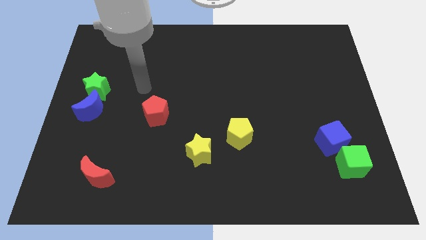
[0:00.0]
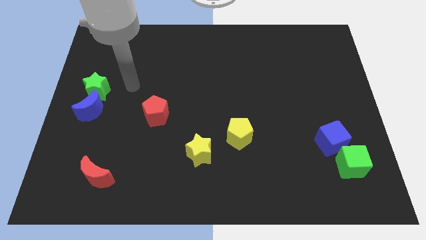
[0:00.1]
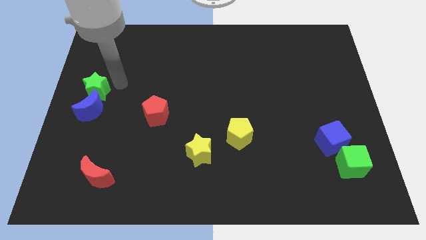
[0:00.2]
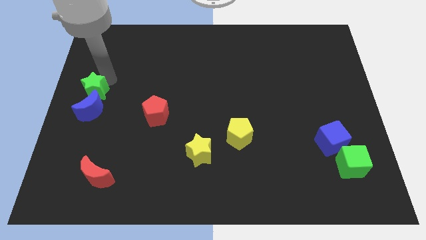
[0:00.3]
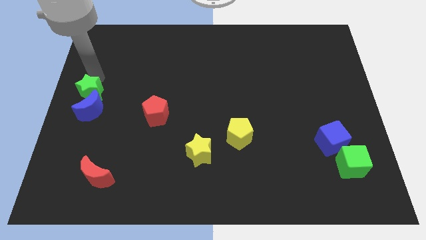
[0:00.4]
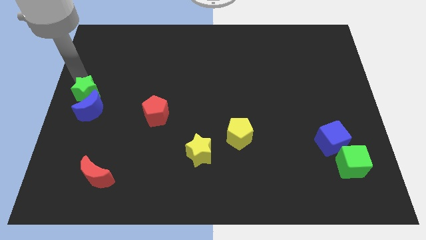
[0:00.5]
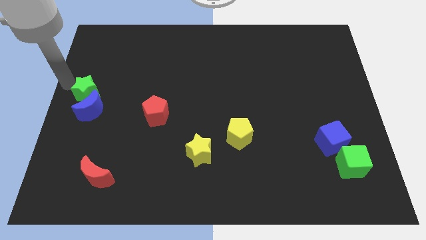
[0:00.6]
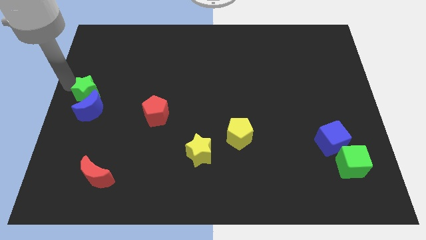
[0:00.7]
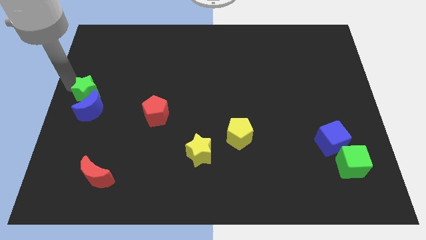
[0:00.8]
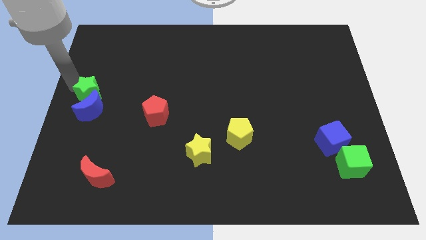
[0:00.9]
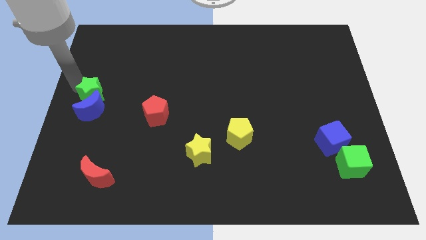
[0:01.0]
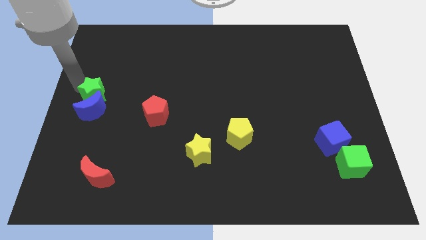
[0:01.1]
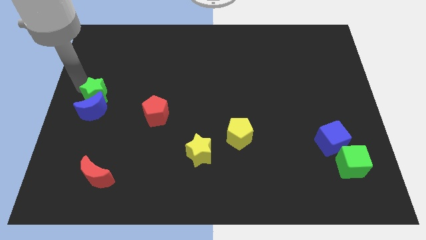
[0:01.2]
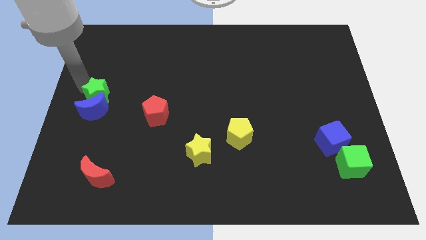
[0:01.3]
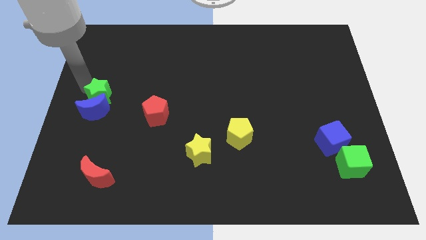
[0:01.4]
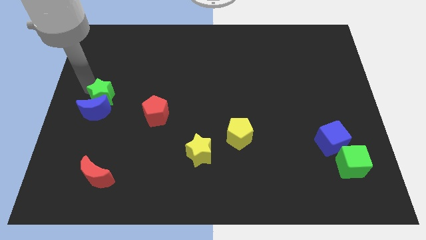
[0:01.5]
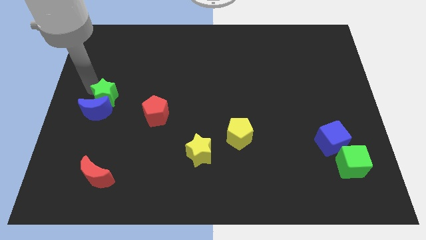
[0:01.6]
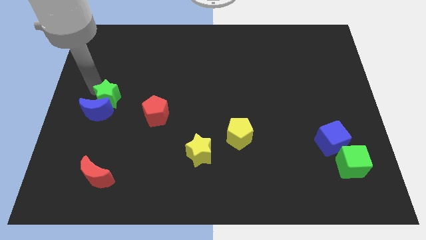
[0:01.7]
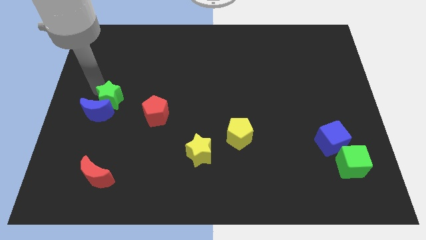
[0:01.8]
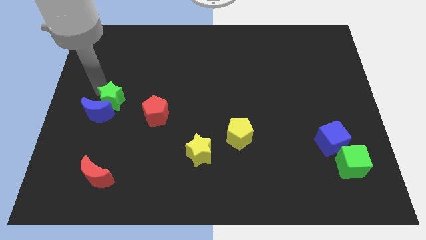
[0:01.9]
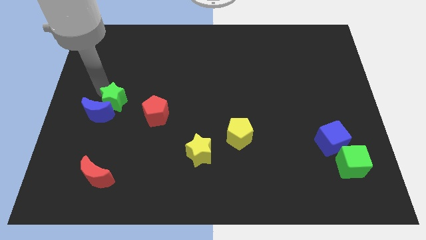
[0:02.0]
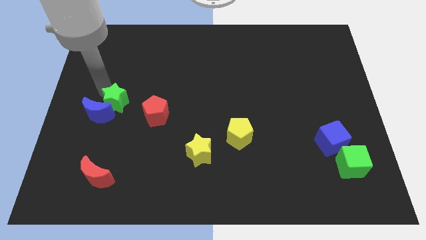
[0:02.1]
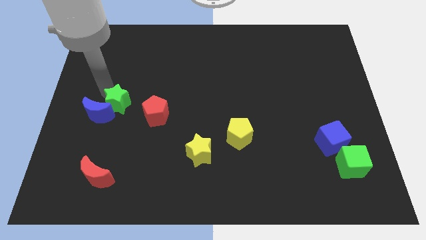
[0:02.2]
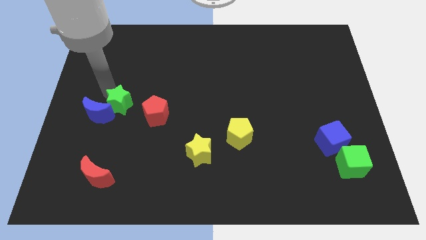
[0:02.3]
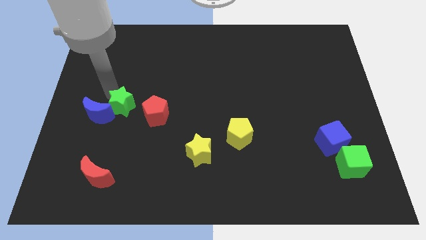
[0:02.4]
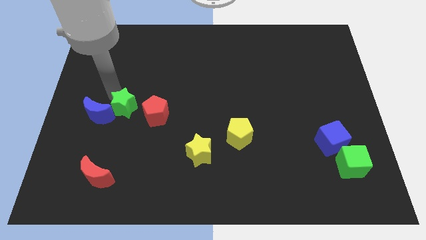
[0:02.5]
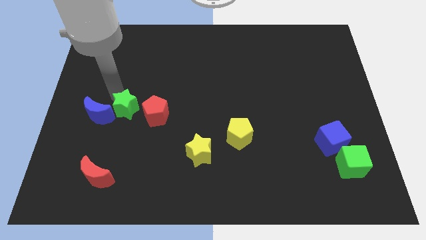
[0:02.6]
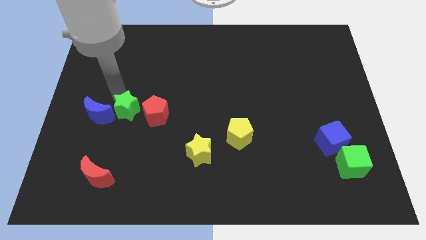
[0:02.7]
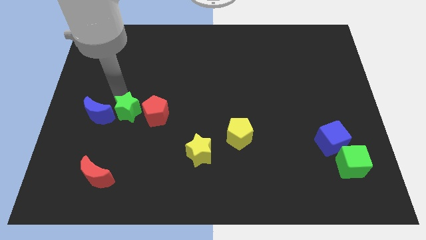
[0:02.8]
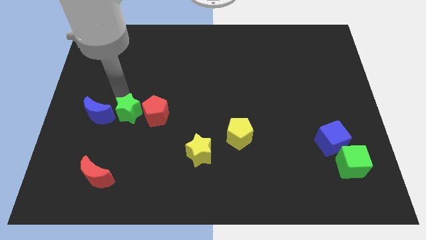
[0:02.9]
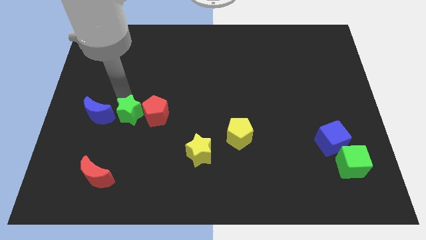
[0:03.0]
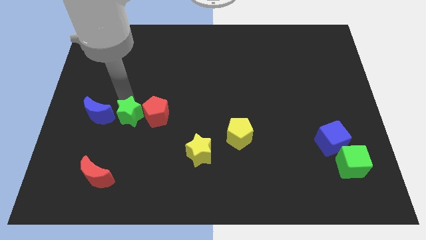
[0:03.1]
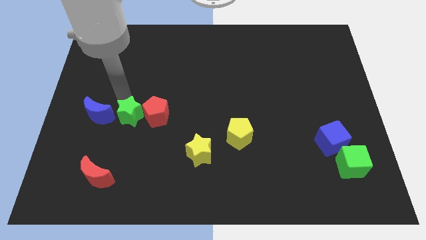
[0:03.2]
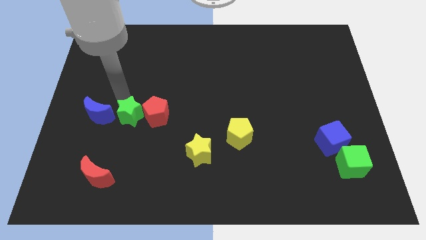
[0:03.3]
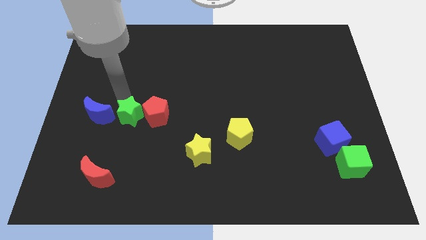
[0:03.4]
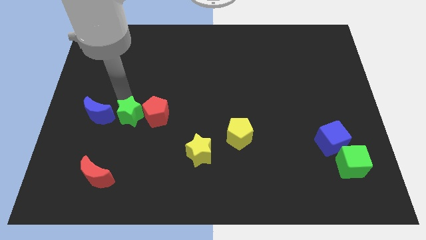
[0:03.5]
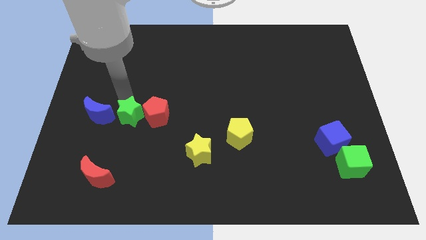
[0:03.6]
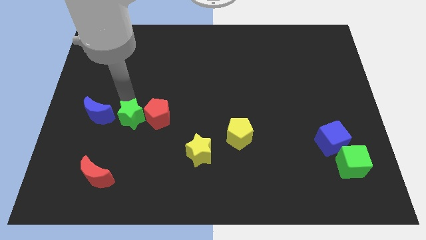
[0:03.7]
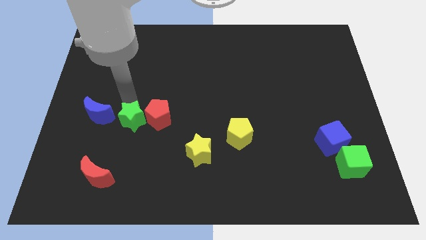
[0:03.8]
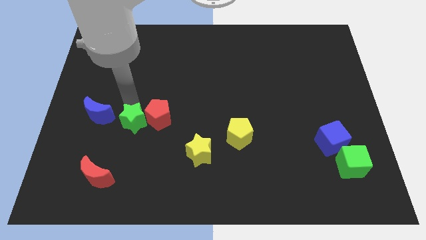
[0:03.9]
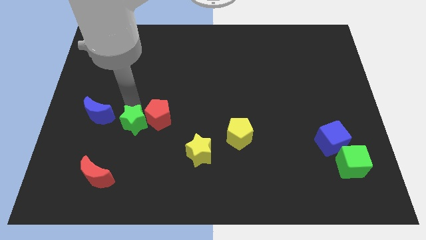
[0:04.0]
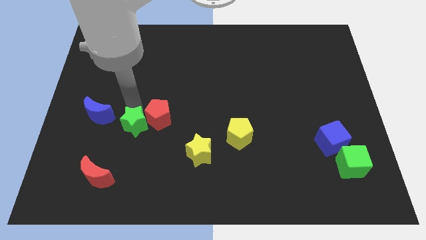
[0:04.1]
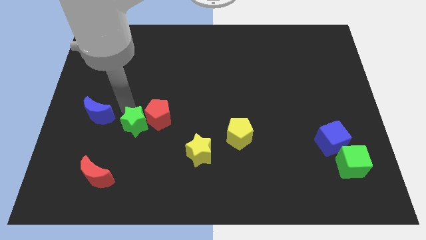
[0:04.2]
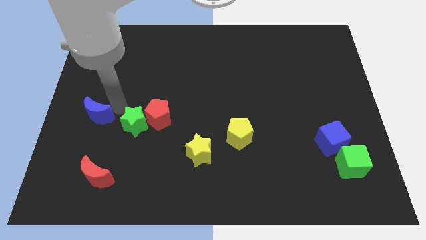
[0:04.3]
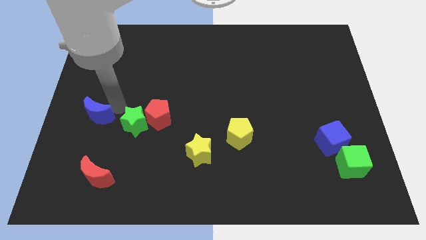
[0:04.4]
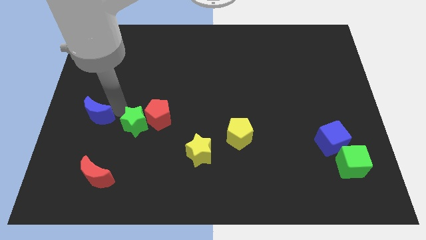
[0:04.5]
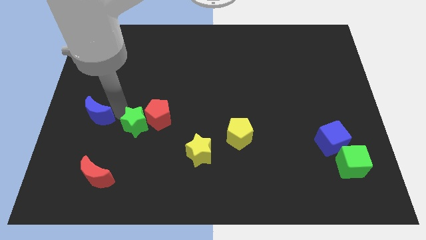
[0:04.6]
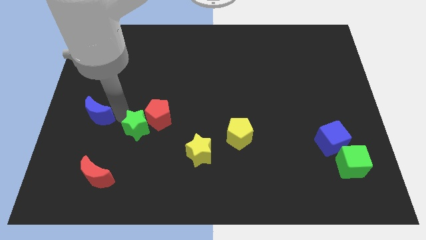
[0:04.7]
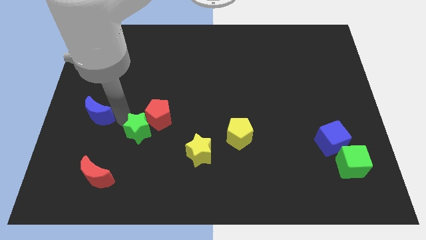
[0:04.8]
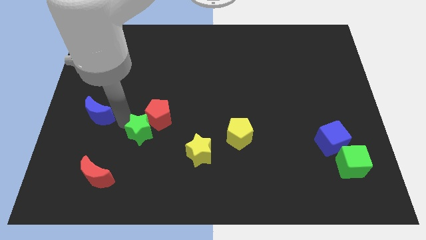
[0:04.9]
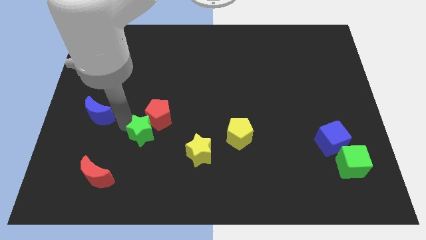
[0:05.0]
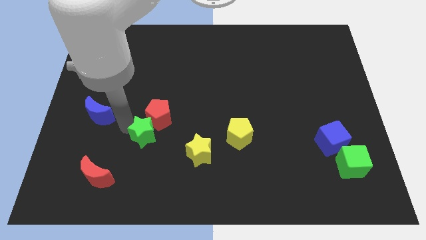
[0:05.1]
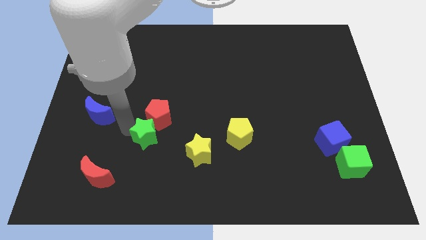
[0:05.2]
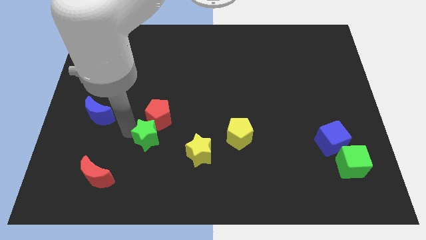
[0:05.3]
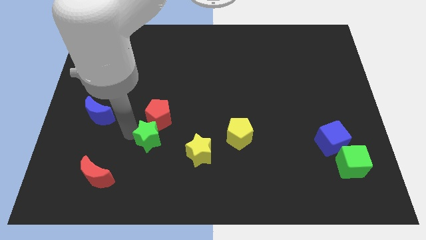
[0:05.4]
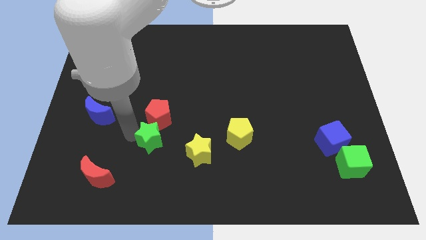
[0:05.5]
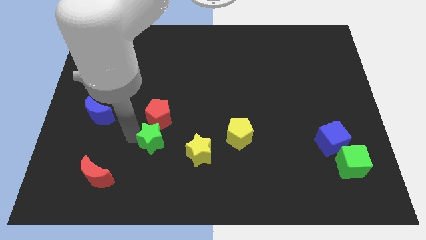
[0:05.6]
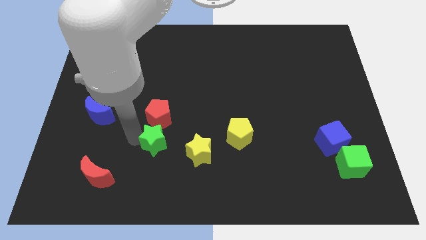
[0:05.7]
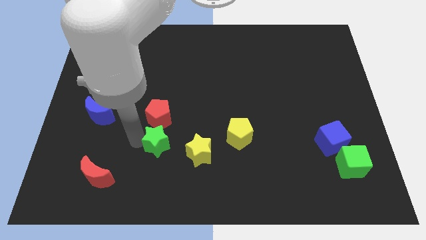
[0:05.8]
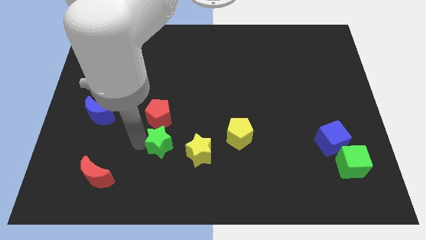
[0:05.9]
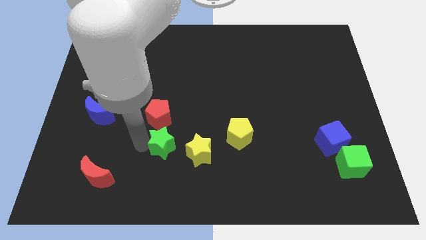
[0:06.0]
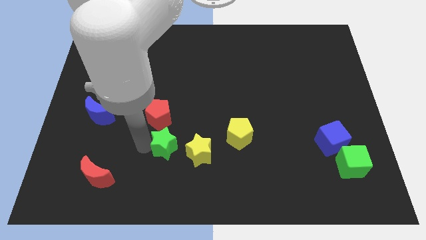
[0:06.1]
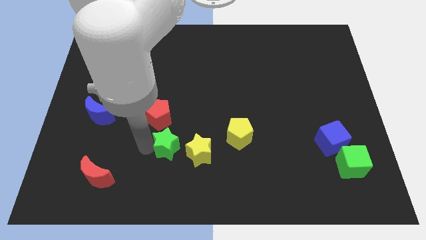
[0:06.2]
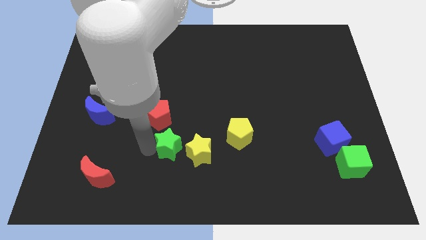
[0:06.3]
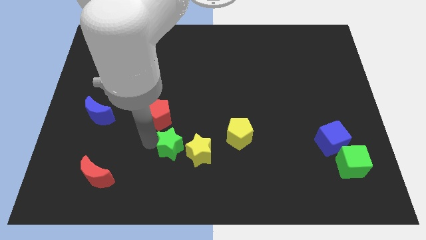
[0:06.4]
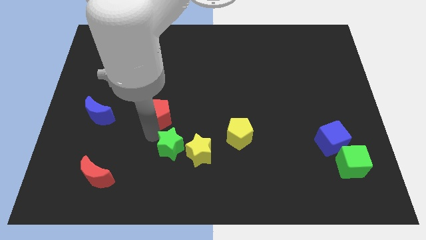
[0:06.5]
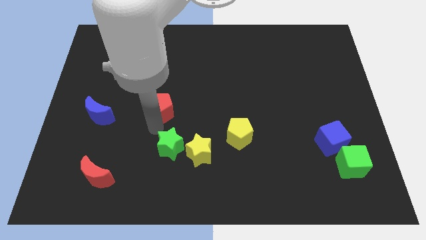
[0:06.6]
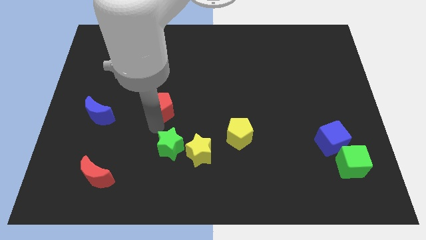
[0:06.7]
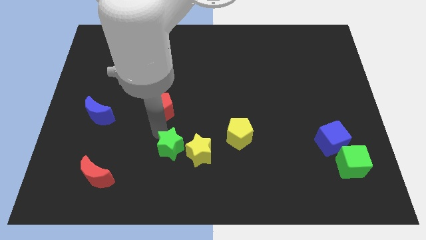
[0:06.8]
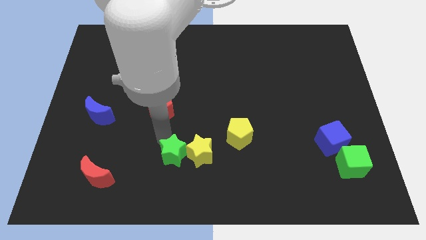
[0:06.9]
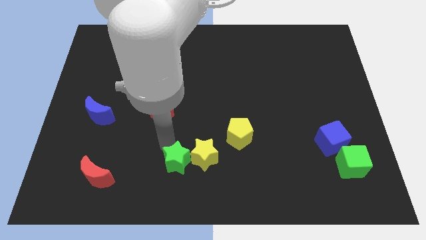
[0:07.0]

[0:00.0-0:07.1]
move the green star to the bottom side
